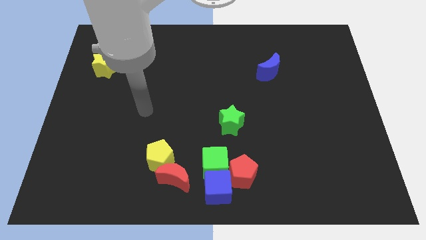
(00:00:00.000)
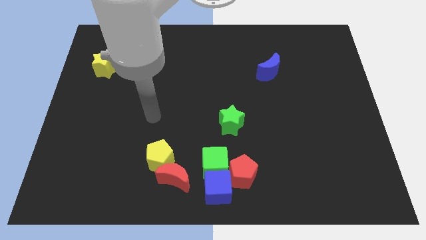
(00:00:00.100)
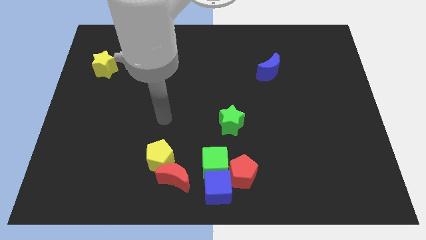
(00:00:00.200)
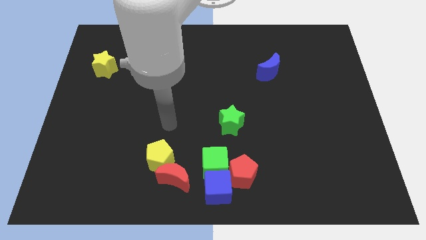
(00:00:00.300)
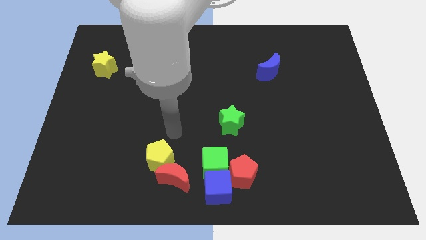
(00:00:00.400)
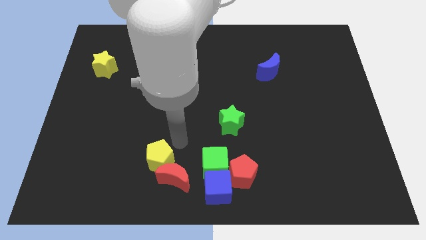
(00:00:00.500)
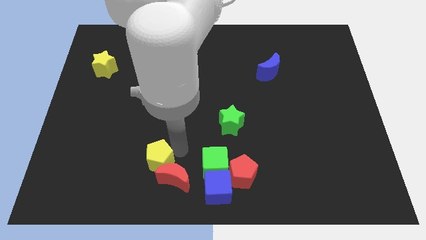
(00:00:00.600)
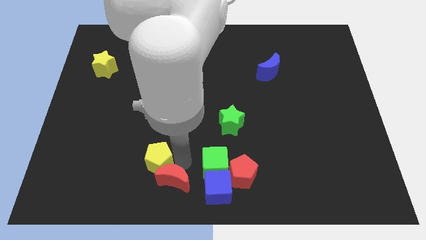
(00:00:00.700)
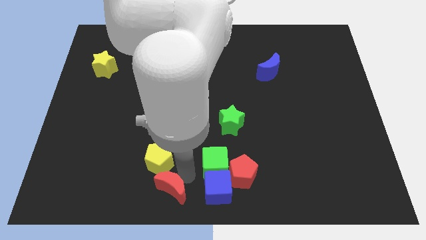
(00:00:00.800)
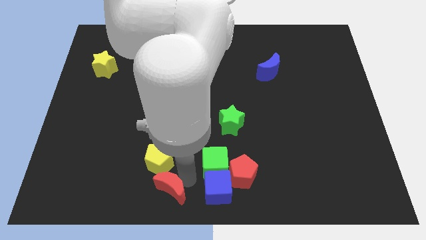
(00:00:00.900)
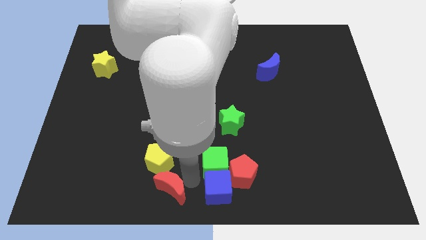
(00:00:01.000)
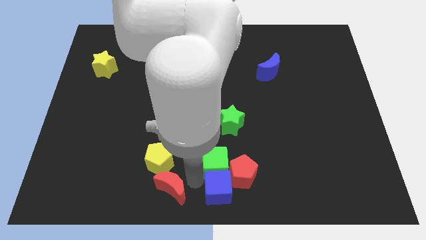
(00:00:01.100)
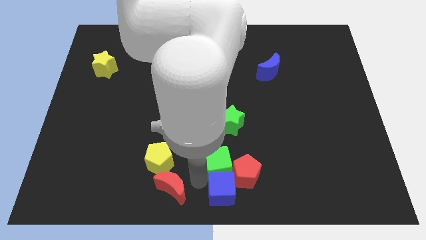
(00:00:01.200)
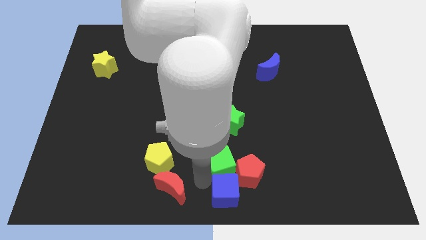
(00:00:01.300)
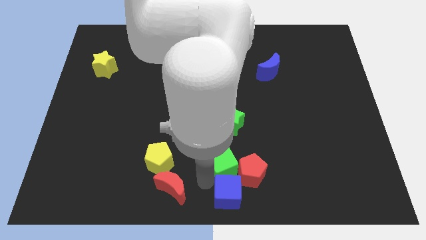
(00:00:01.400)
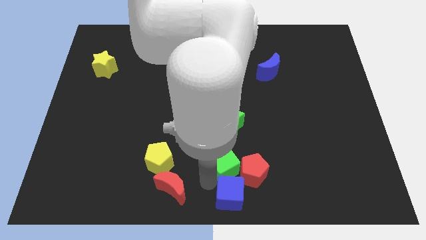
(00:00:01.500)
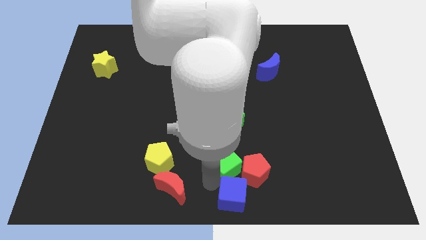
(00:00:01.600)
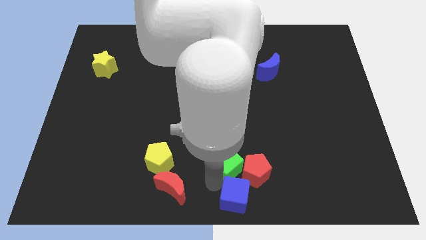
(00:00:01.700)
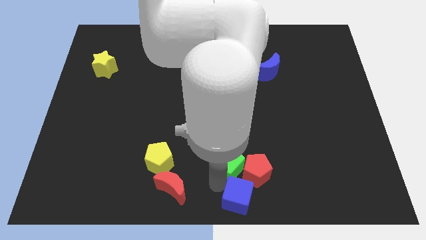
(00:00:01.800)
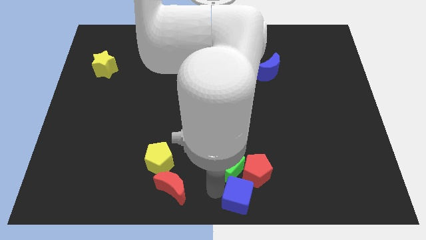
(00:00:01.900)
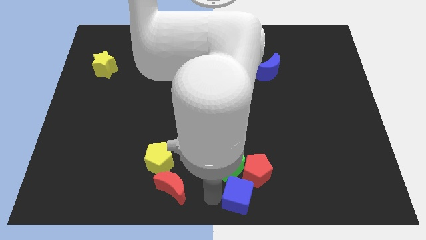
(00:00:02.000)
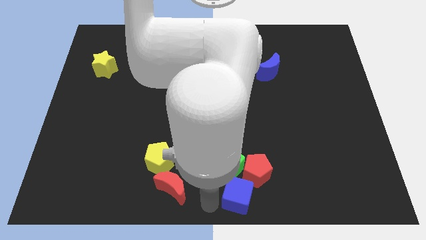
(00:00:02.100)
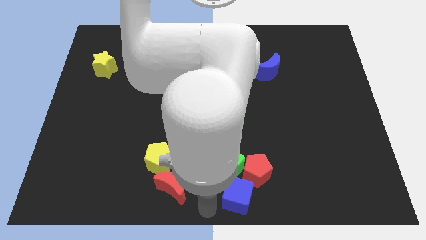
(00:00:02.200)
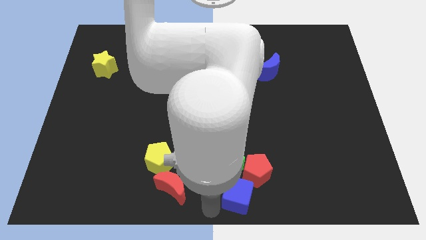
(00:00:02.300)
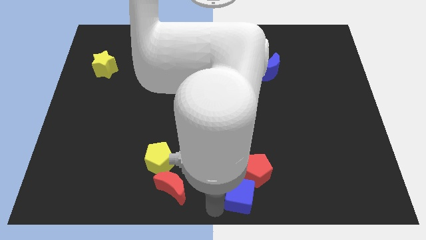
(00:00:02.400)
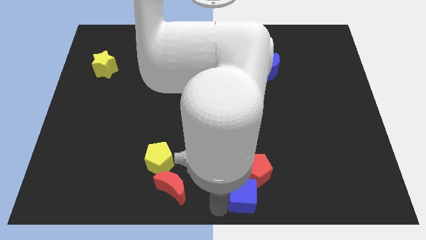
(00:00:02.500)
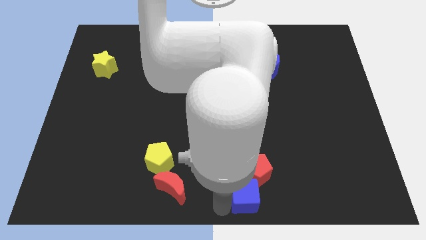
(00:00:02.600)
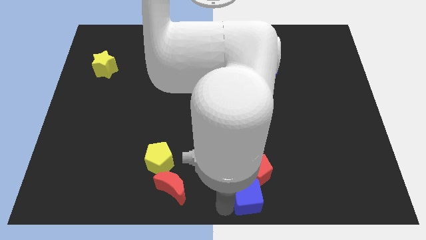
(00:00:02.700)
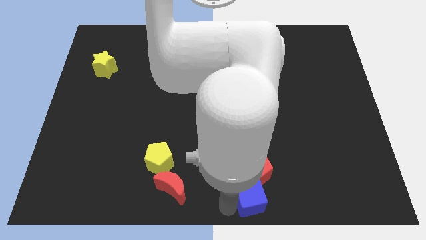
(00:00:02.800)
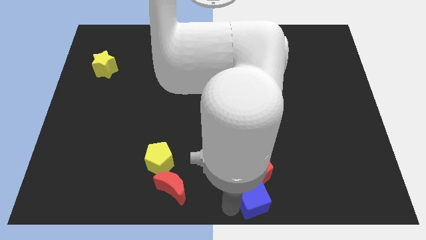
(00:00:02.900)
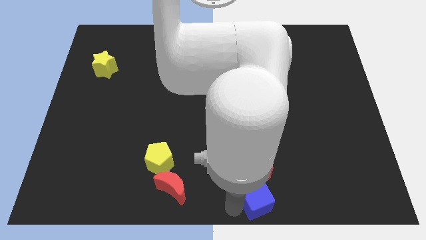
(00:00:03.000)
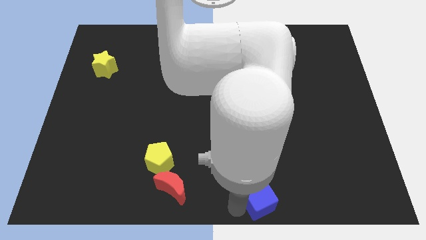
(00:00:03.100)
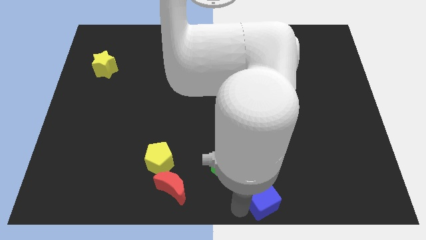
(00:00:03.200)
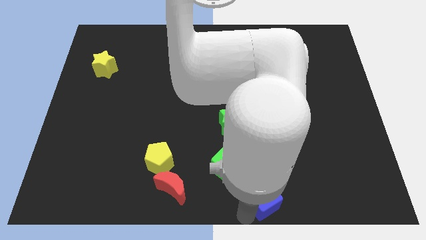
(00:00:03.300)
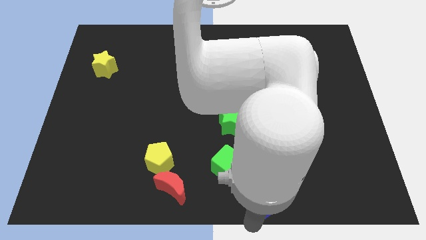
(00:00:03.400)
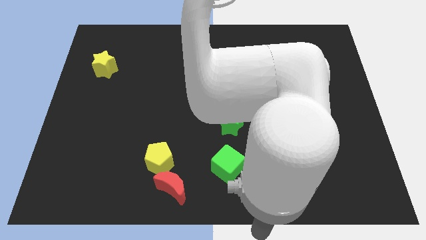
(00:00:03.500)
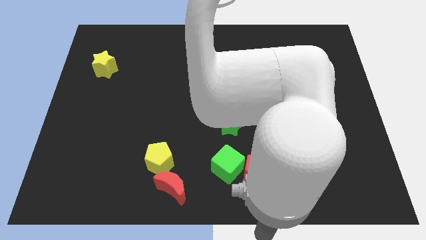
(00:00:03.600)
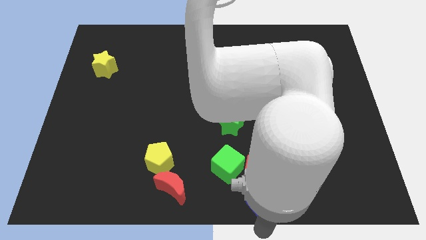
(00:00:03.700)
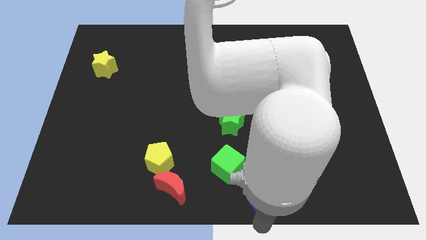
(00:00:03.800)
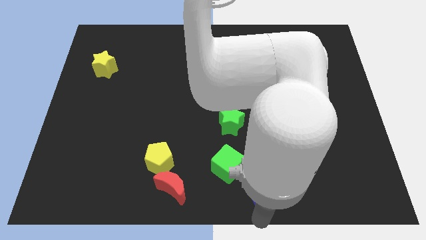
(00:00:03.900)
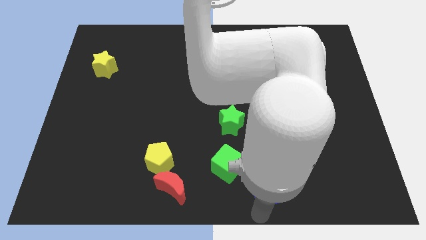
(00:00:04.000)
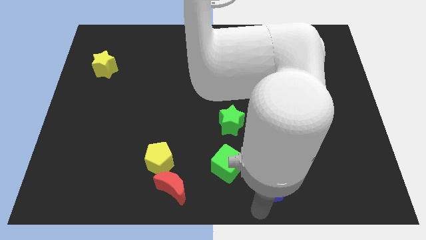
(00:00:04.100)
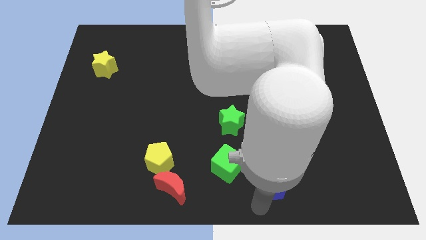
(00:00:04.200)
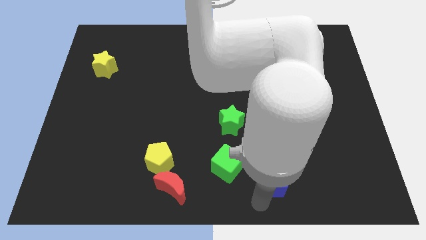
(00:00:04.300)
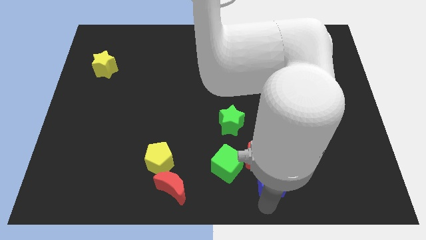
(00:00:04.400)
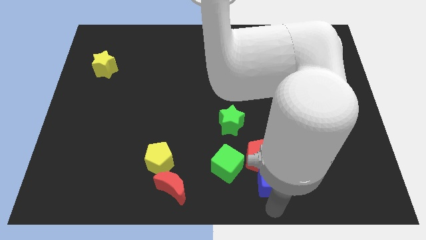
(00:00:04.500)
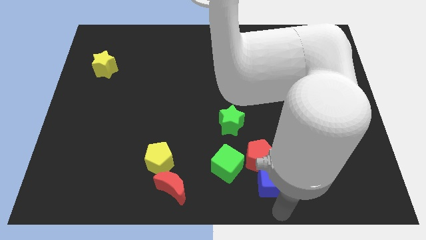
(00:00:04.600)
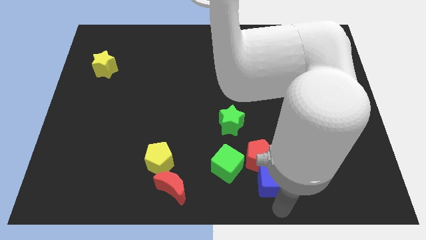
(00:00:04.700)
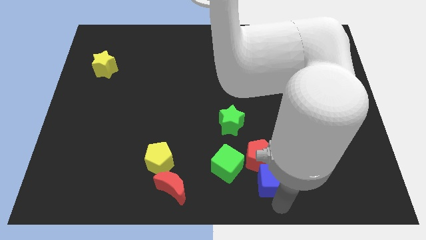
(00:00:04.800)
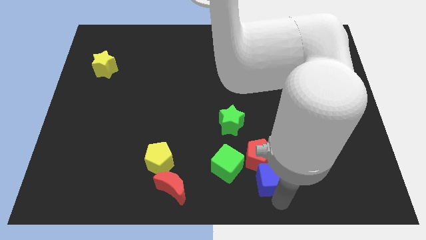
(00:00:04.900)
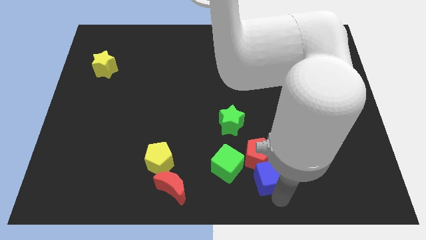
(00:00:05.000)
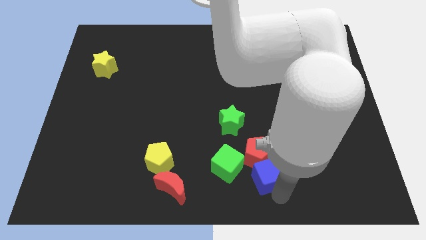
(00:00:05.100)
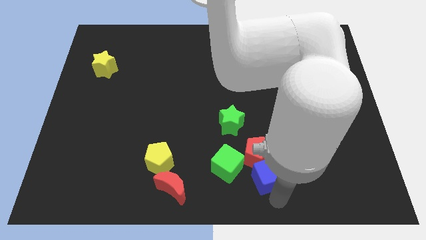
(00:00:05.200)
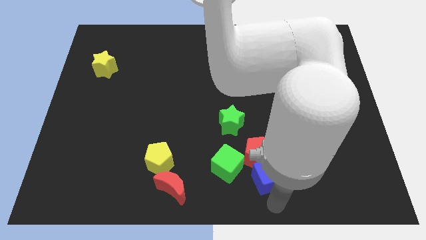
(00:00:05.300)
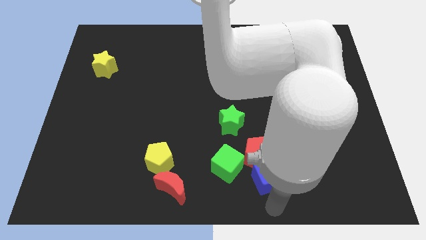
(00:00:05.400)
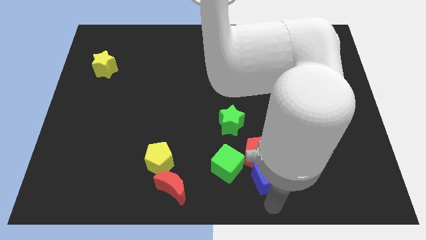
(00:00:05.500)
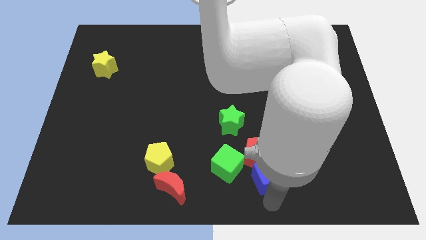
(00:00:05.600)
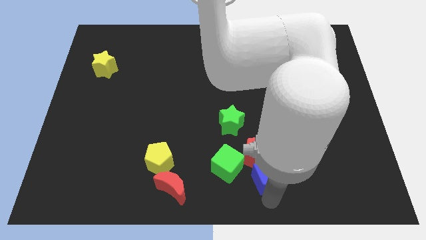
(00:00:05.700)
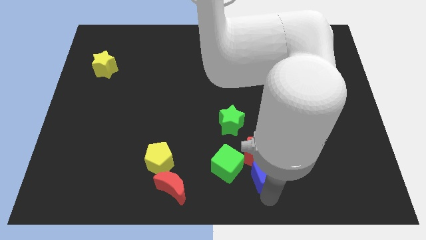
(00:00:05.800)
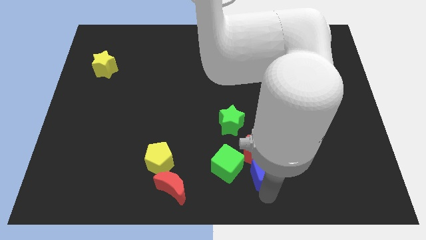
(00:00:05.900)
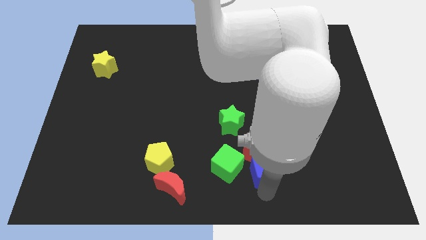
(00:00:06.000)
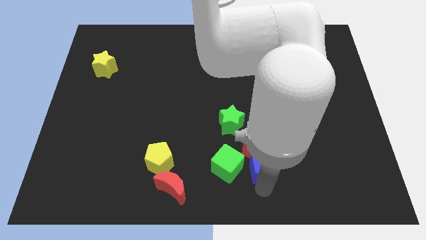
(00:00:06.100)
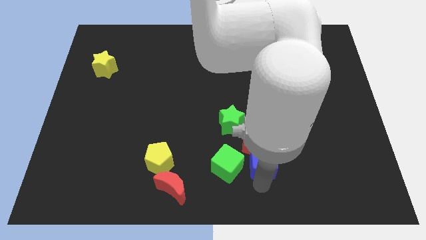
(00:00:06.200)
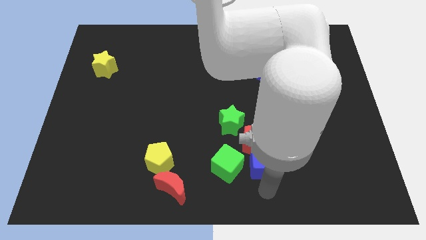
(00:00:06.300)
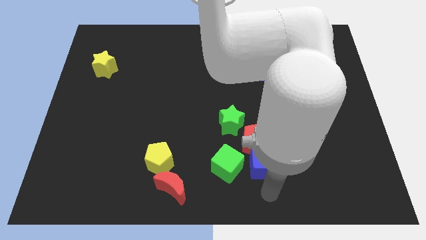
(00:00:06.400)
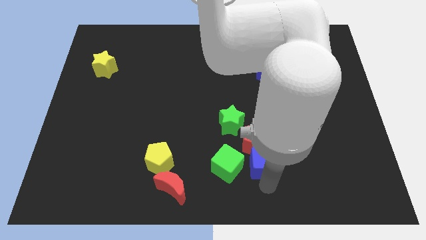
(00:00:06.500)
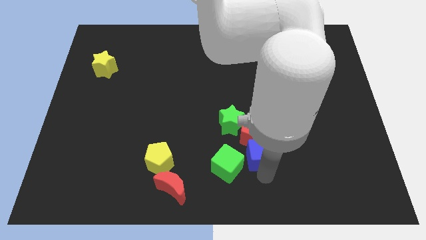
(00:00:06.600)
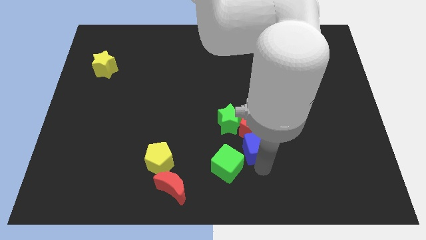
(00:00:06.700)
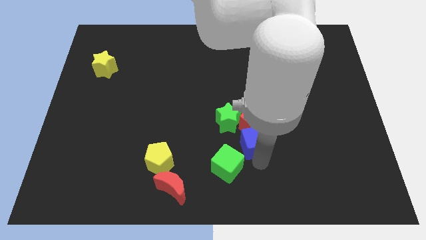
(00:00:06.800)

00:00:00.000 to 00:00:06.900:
push the blue cube upwards somewhat

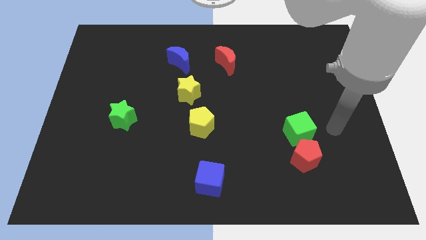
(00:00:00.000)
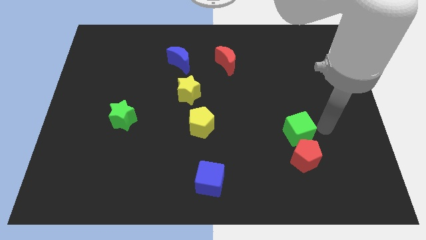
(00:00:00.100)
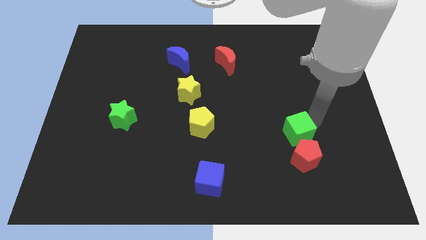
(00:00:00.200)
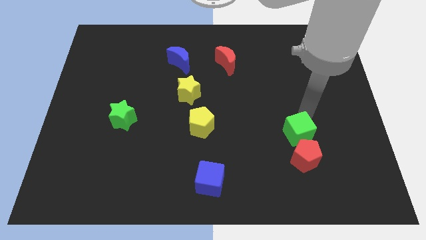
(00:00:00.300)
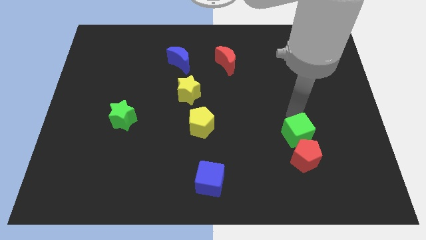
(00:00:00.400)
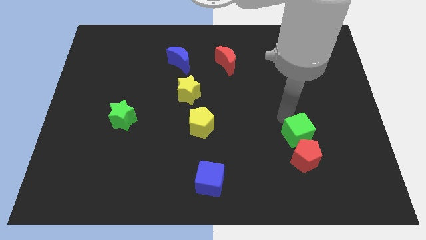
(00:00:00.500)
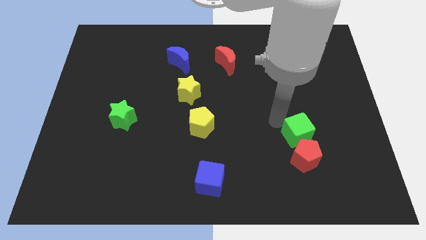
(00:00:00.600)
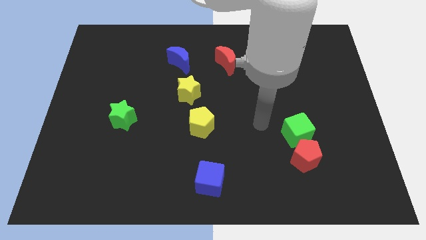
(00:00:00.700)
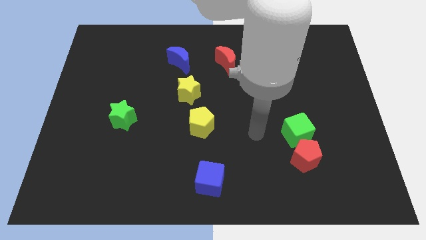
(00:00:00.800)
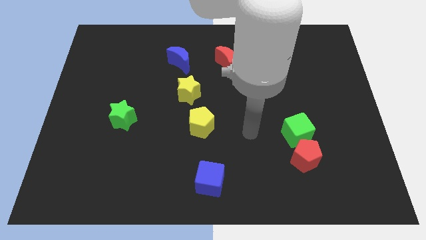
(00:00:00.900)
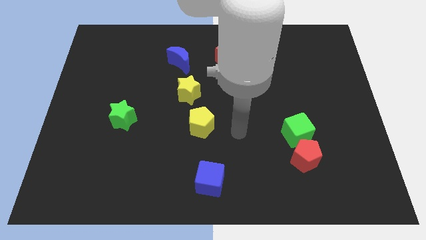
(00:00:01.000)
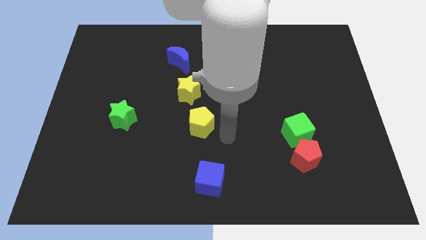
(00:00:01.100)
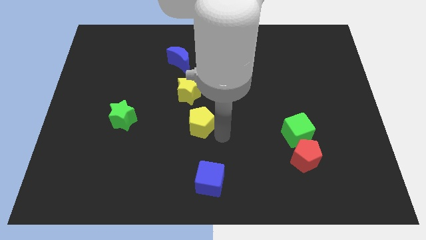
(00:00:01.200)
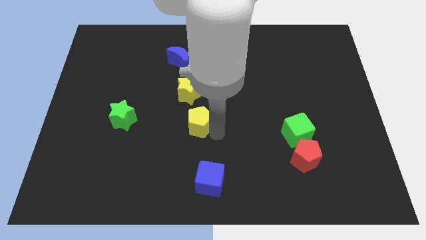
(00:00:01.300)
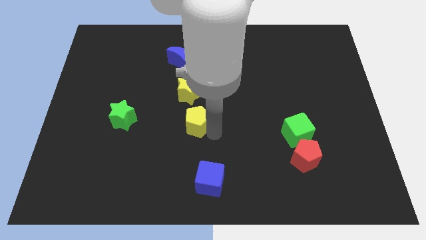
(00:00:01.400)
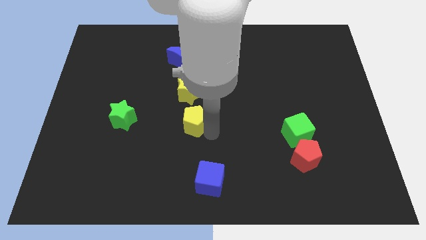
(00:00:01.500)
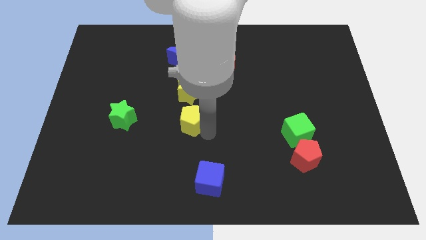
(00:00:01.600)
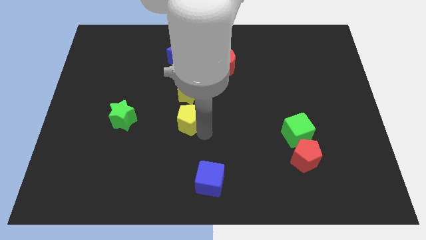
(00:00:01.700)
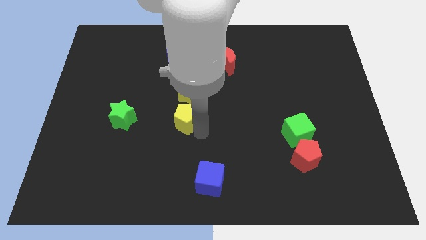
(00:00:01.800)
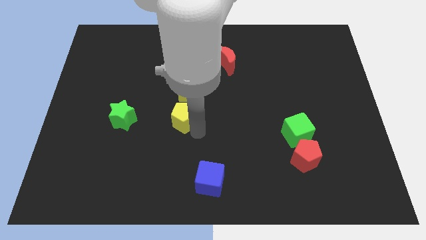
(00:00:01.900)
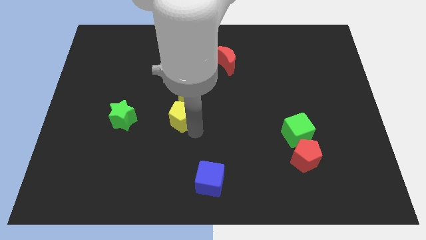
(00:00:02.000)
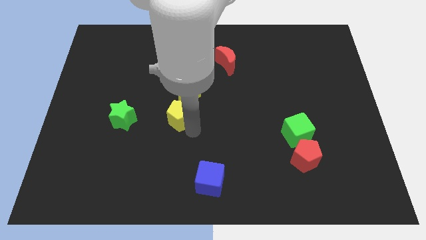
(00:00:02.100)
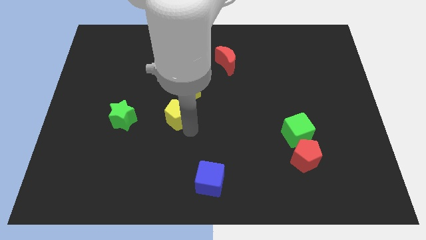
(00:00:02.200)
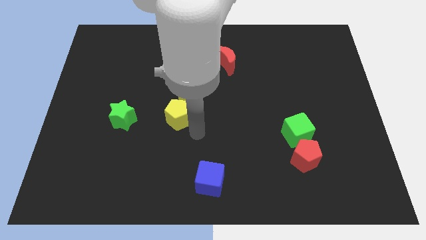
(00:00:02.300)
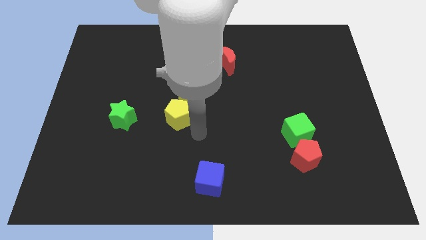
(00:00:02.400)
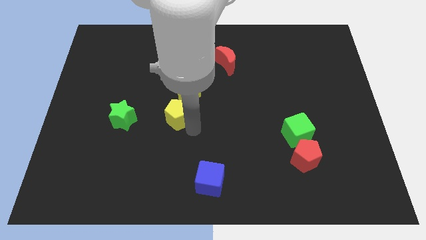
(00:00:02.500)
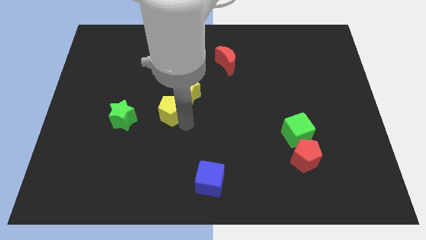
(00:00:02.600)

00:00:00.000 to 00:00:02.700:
push the yellow pentagon upwards and then to the left a little
